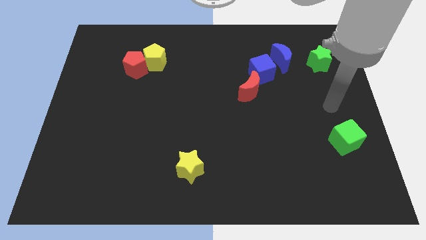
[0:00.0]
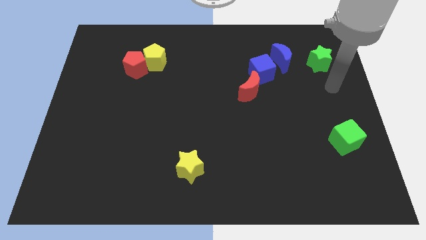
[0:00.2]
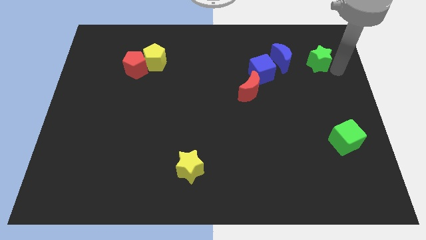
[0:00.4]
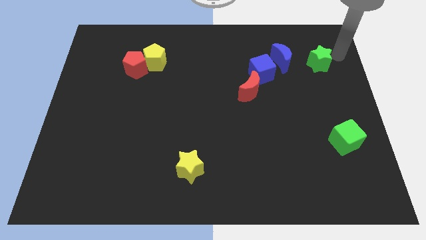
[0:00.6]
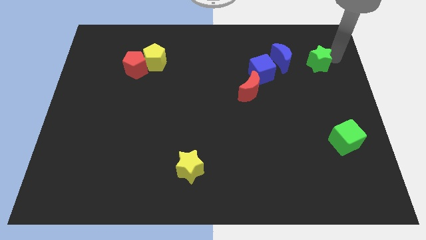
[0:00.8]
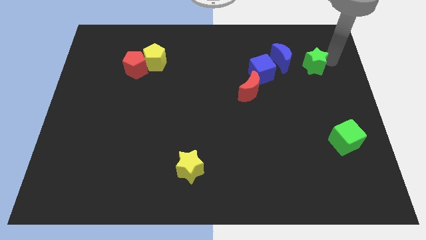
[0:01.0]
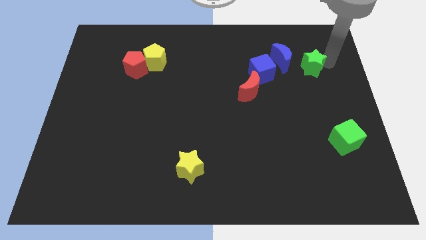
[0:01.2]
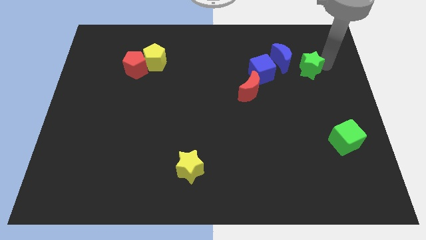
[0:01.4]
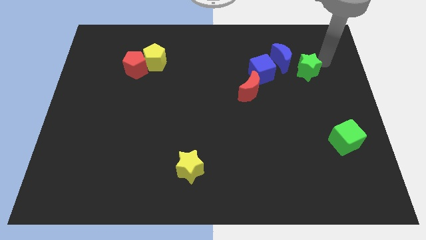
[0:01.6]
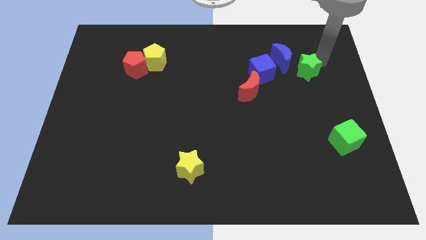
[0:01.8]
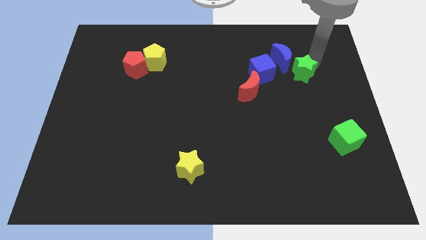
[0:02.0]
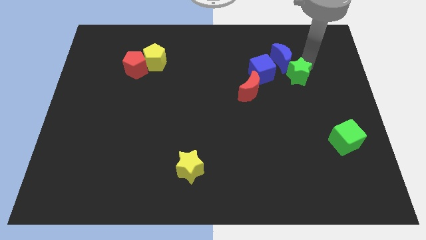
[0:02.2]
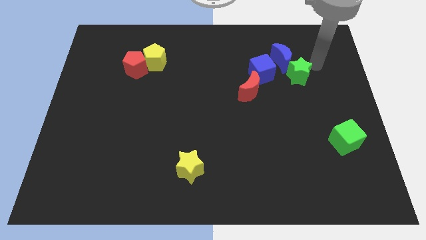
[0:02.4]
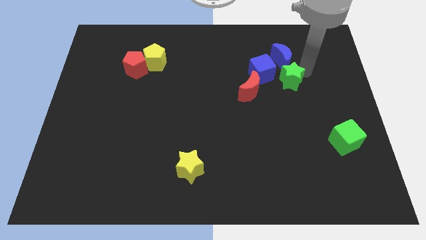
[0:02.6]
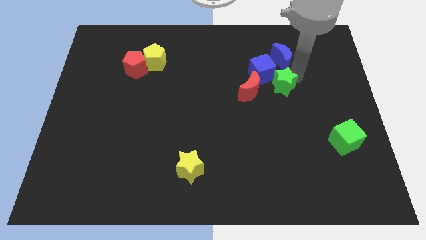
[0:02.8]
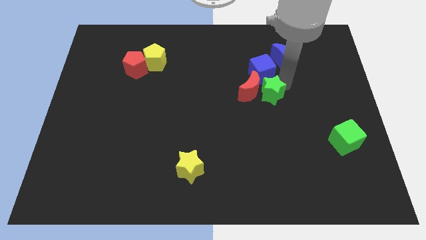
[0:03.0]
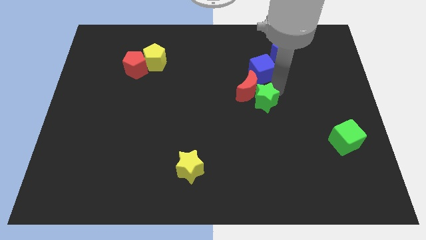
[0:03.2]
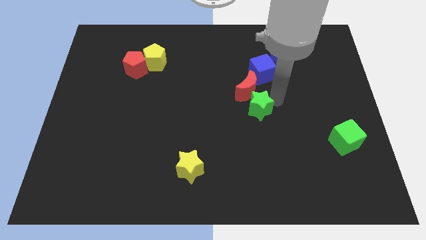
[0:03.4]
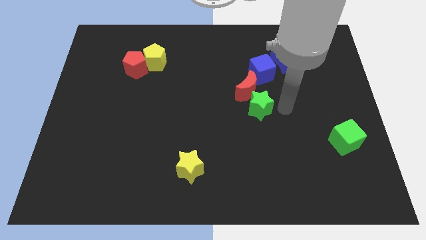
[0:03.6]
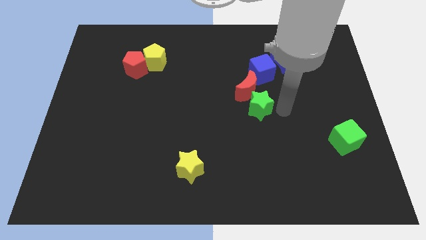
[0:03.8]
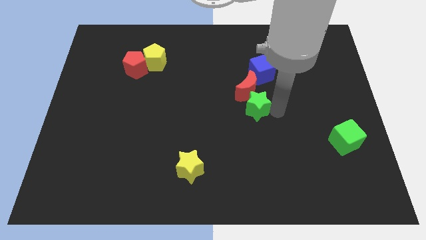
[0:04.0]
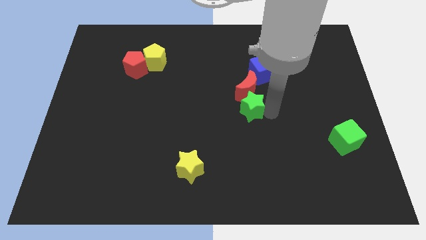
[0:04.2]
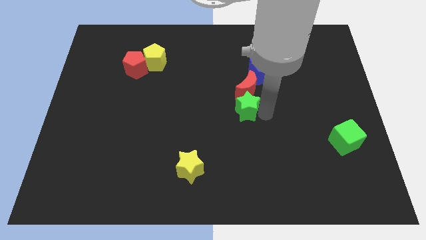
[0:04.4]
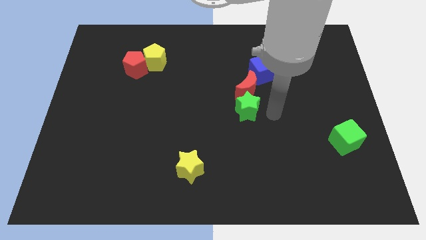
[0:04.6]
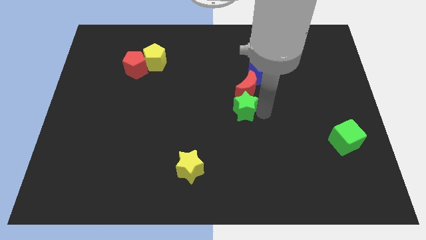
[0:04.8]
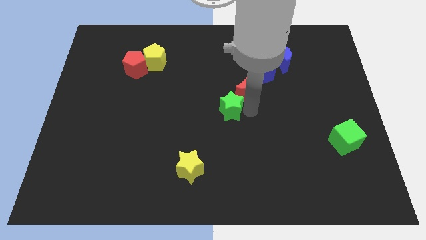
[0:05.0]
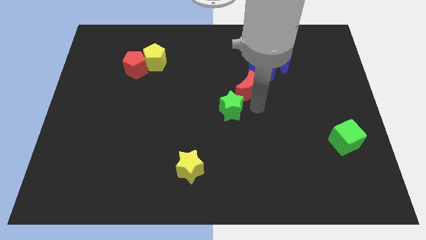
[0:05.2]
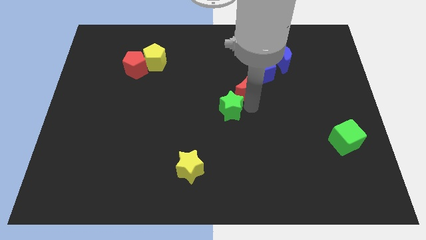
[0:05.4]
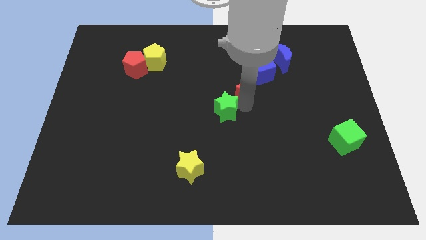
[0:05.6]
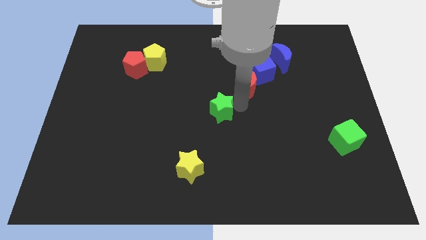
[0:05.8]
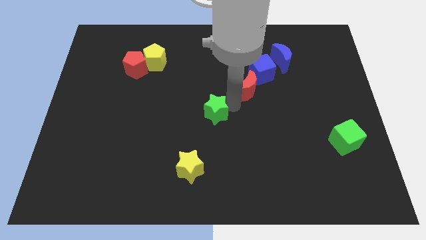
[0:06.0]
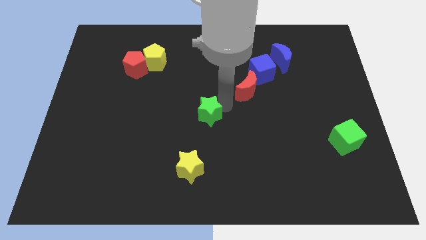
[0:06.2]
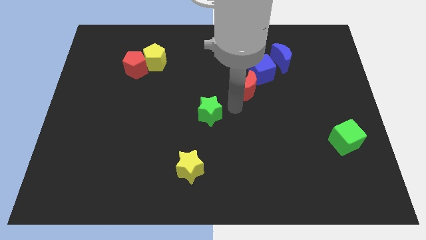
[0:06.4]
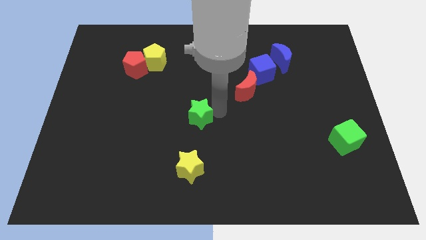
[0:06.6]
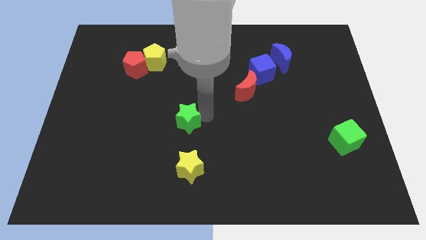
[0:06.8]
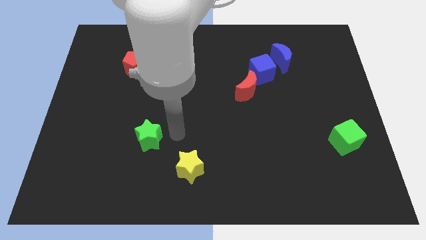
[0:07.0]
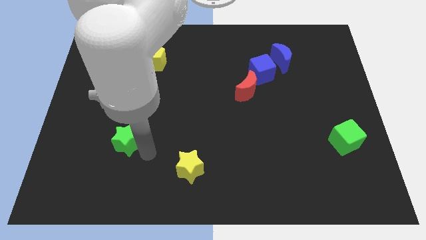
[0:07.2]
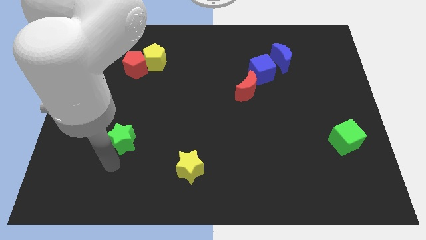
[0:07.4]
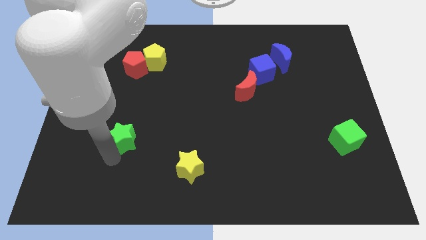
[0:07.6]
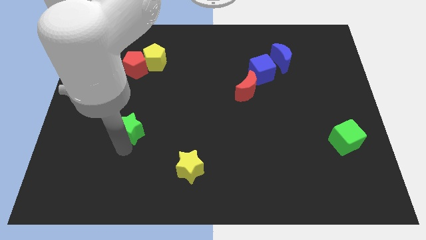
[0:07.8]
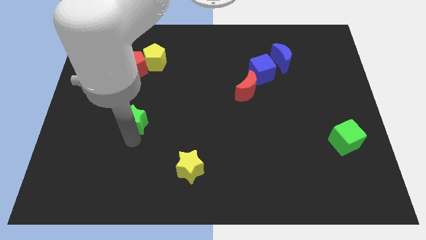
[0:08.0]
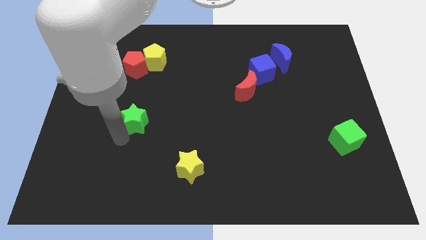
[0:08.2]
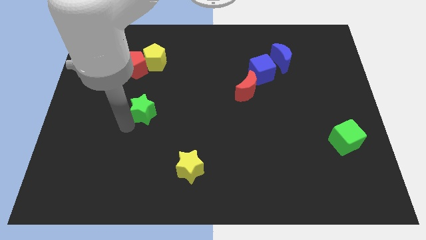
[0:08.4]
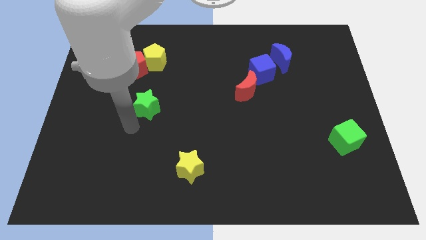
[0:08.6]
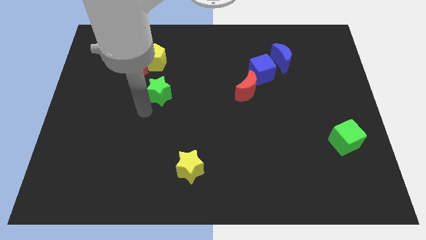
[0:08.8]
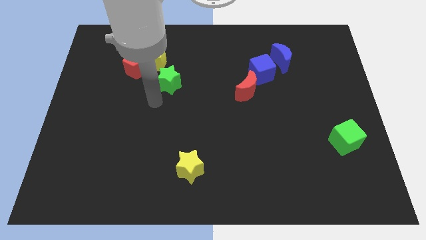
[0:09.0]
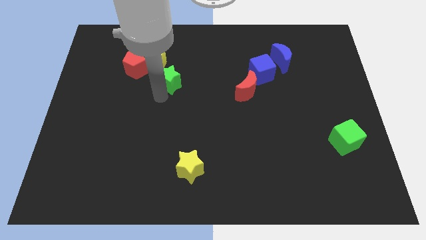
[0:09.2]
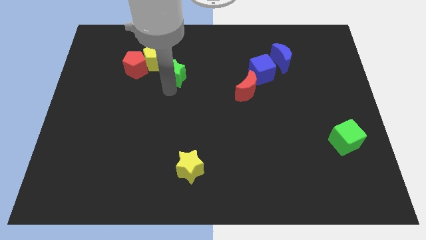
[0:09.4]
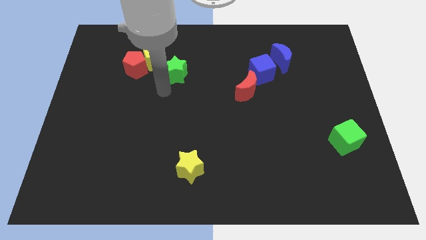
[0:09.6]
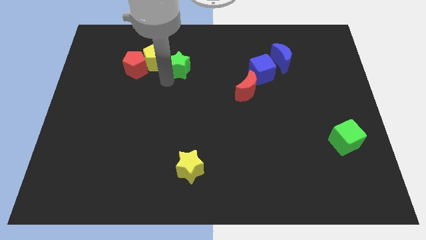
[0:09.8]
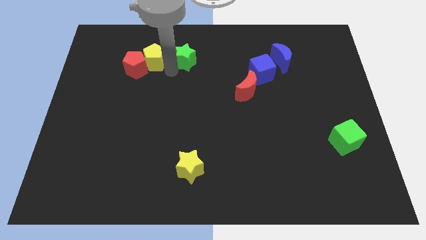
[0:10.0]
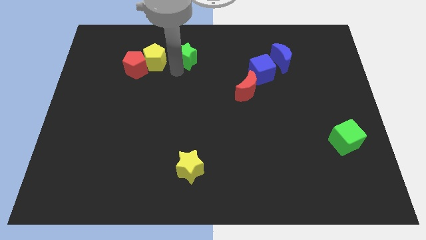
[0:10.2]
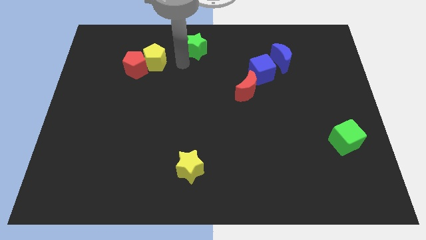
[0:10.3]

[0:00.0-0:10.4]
slide the green star to the towards your base

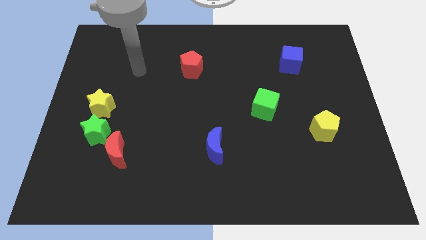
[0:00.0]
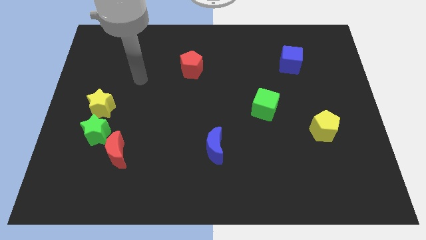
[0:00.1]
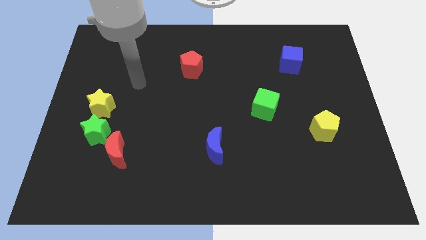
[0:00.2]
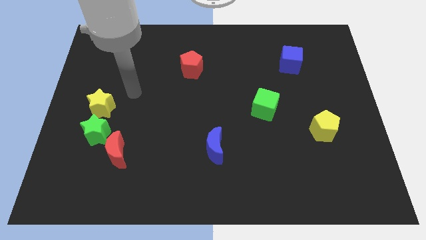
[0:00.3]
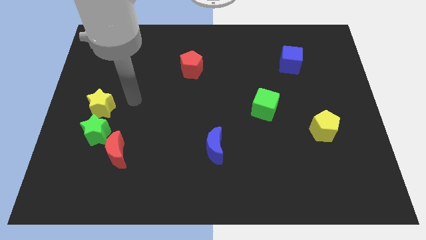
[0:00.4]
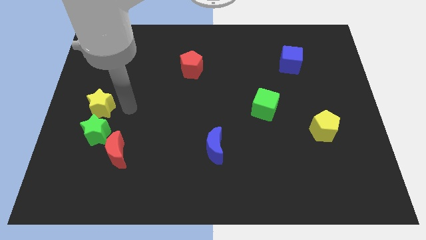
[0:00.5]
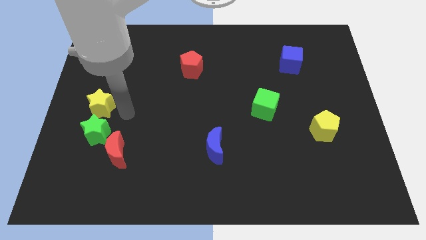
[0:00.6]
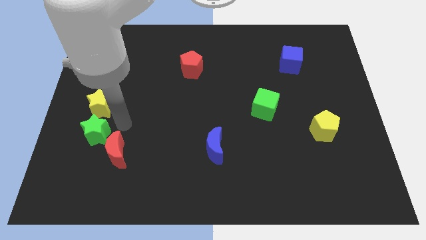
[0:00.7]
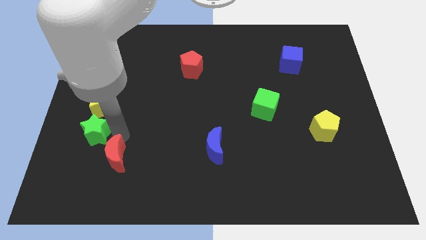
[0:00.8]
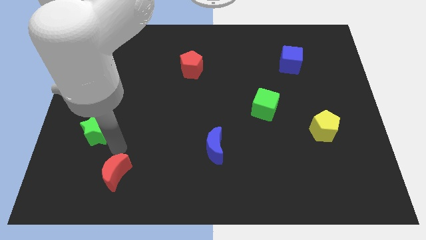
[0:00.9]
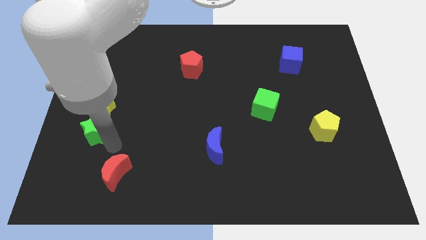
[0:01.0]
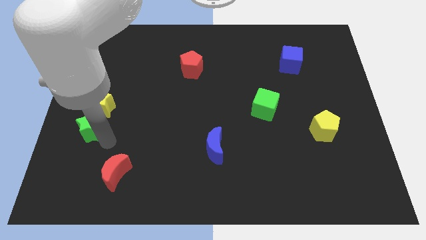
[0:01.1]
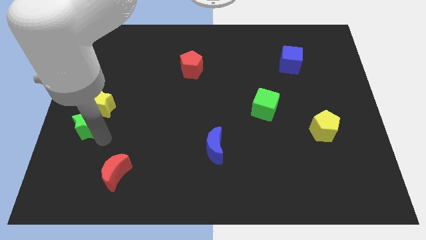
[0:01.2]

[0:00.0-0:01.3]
slide the green star to the center left
